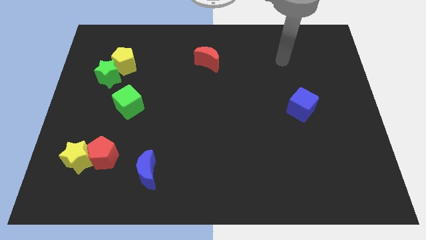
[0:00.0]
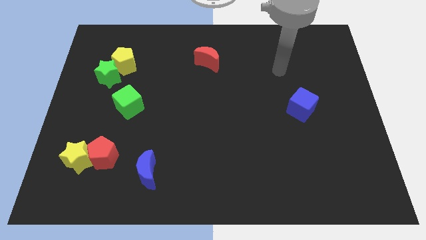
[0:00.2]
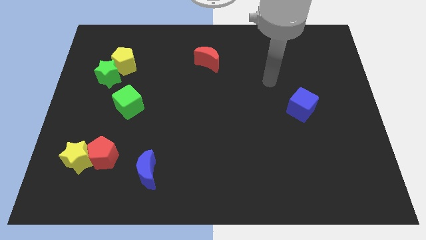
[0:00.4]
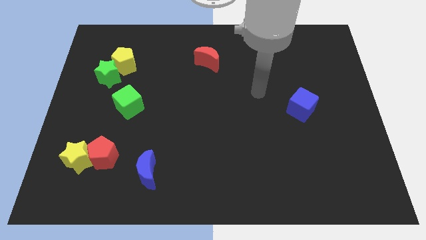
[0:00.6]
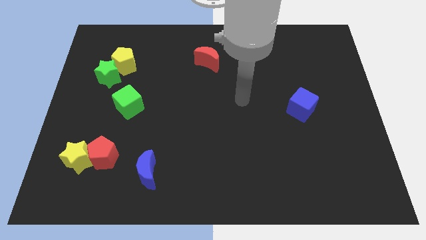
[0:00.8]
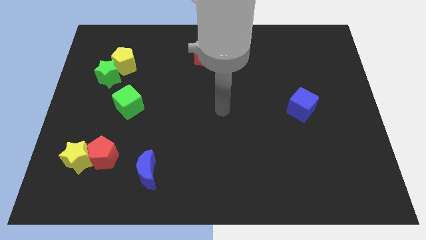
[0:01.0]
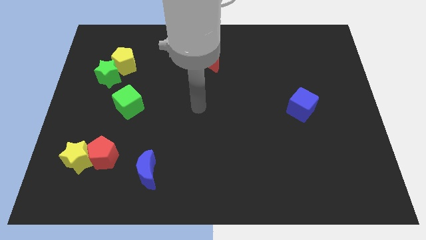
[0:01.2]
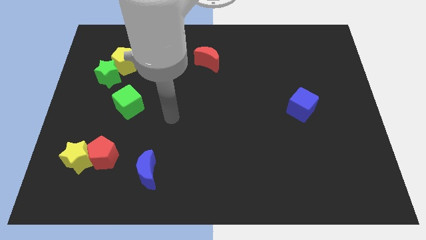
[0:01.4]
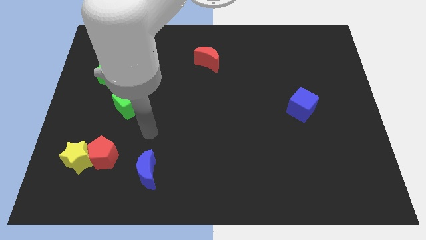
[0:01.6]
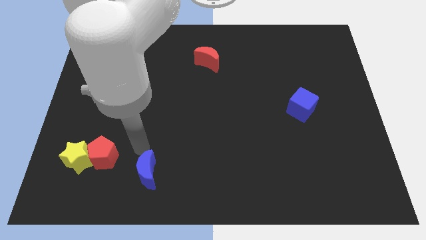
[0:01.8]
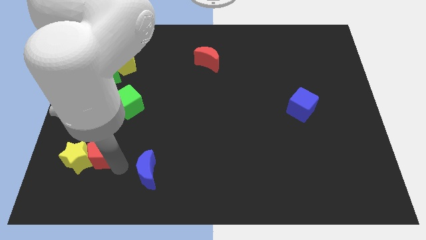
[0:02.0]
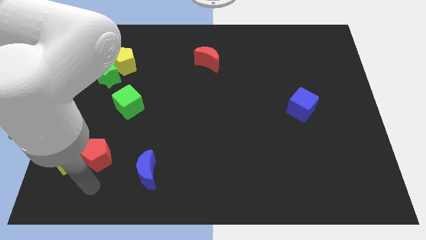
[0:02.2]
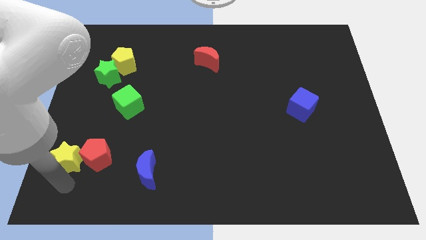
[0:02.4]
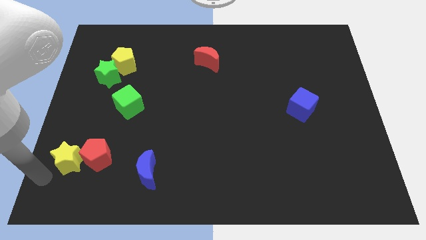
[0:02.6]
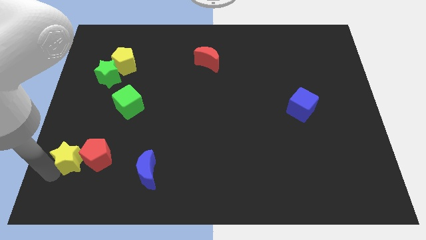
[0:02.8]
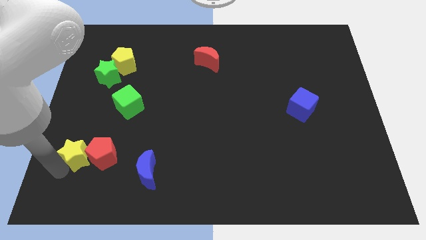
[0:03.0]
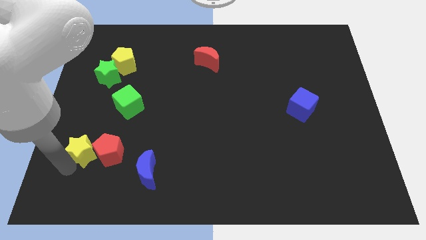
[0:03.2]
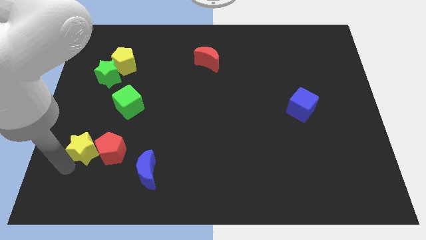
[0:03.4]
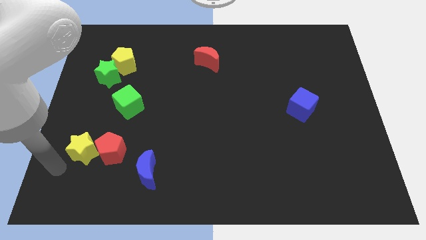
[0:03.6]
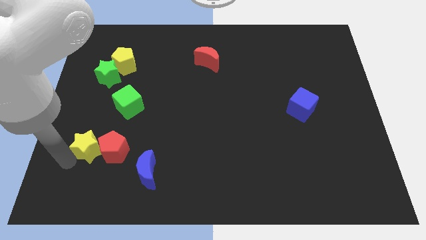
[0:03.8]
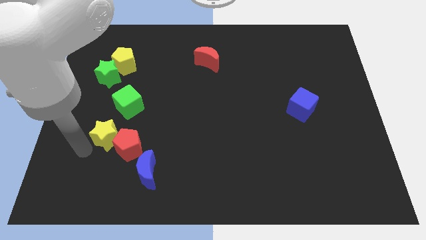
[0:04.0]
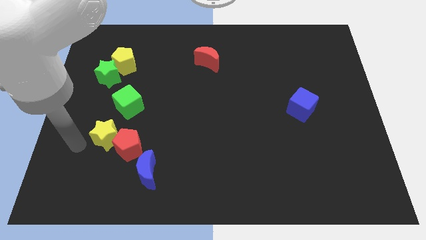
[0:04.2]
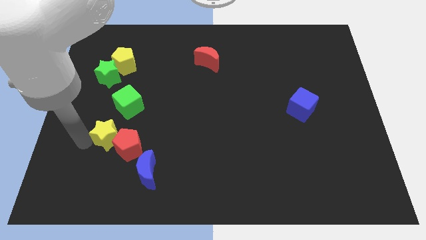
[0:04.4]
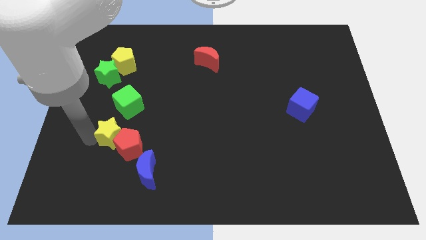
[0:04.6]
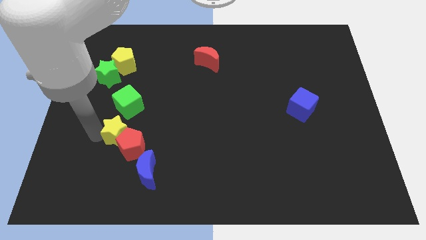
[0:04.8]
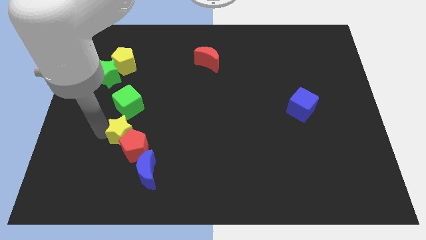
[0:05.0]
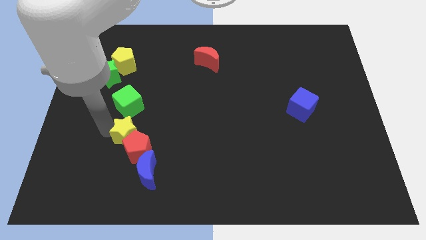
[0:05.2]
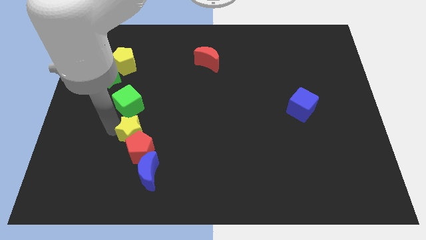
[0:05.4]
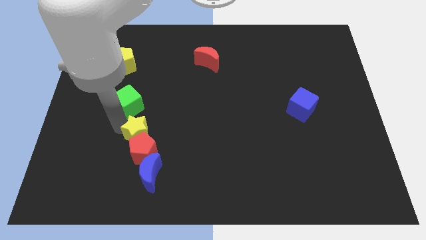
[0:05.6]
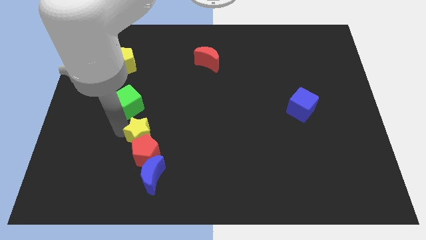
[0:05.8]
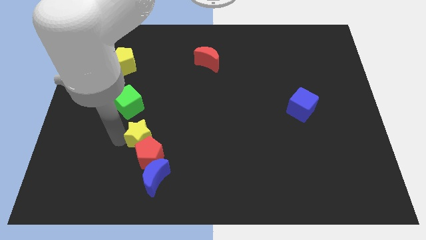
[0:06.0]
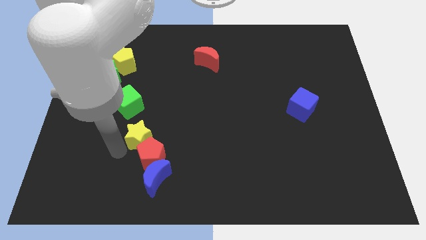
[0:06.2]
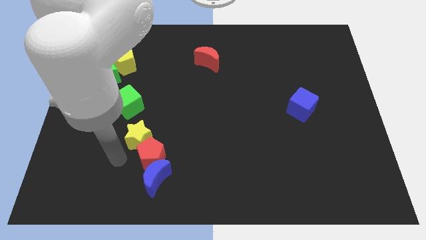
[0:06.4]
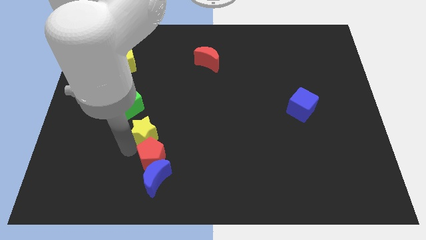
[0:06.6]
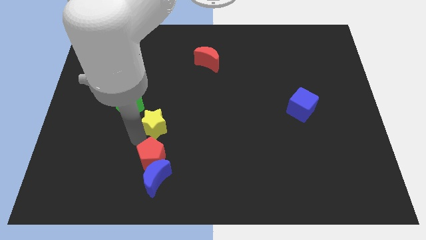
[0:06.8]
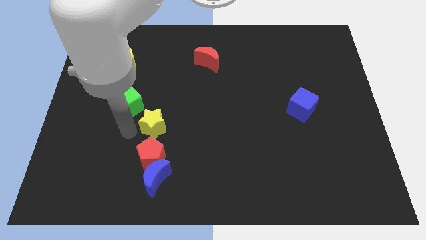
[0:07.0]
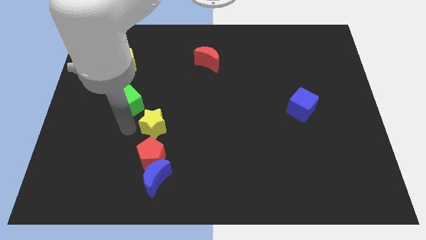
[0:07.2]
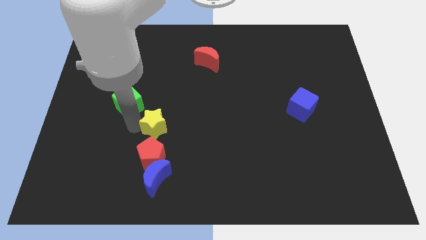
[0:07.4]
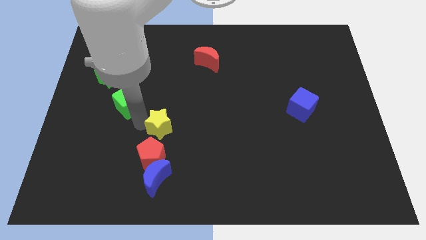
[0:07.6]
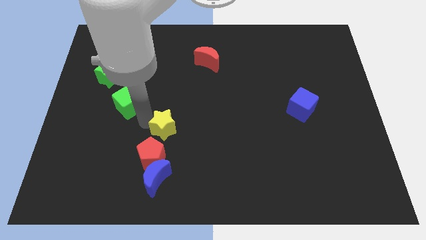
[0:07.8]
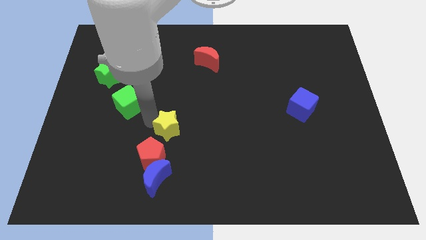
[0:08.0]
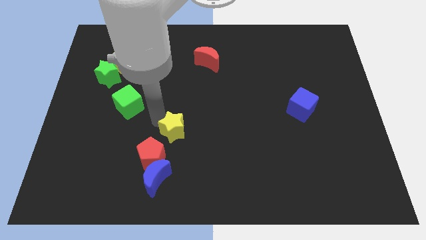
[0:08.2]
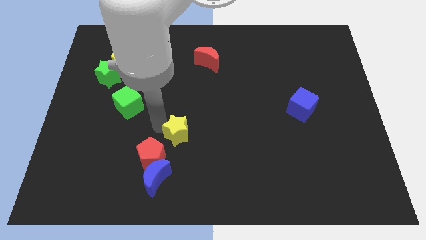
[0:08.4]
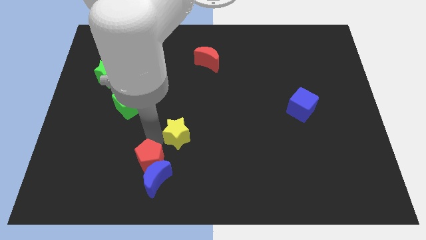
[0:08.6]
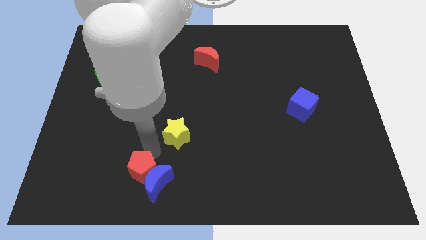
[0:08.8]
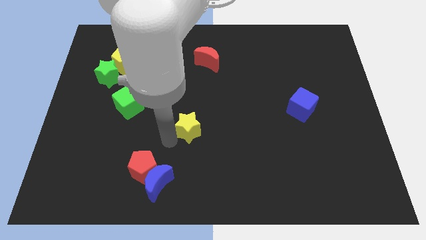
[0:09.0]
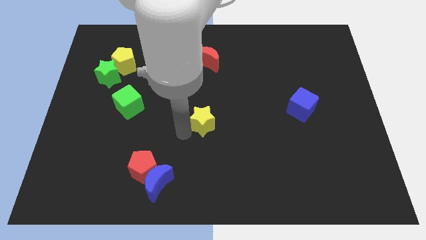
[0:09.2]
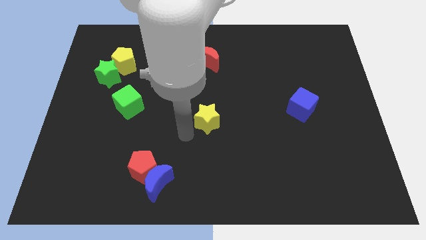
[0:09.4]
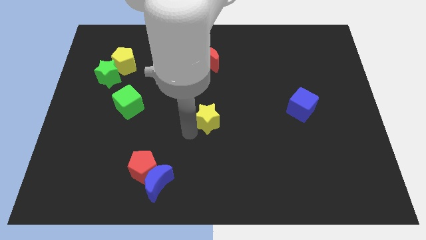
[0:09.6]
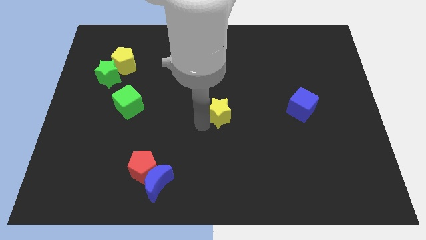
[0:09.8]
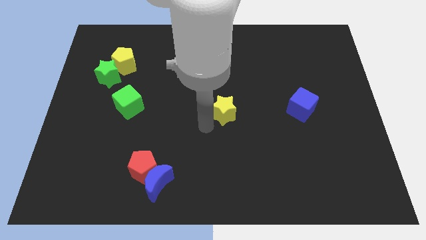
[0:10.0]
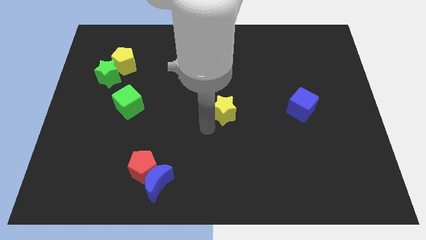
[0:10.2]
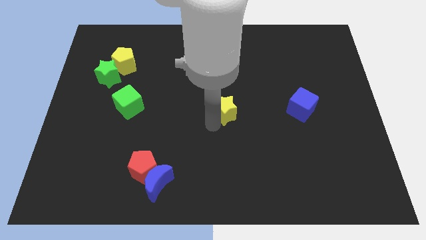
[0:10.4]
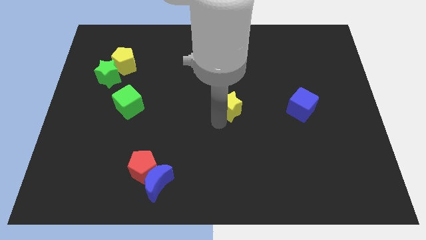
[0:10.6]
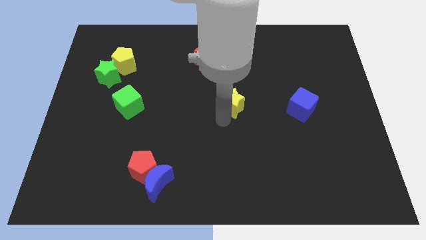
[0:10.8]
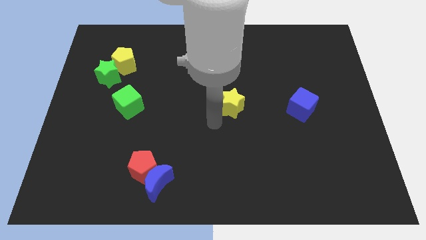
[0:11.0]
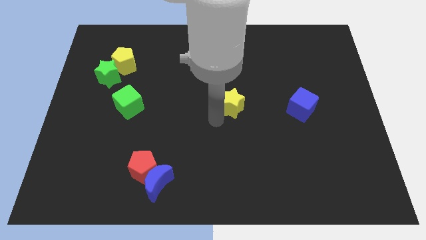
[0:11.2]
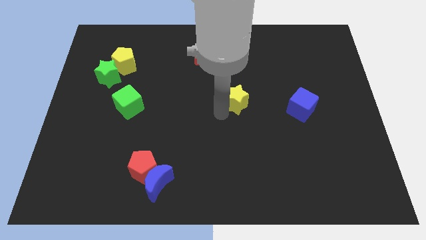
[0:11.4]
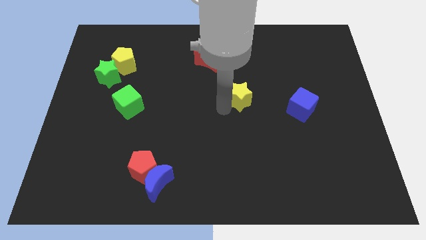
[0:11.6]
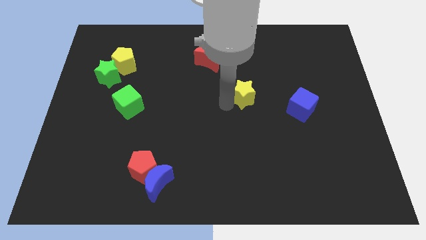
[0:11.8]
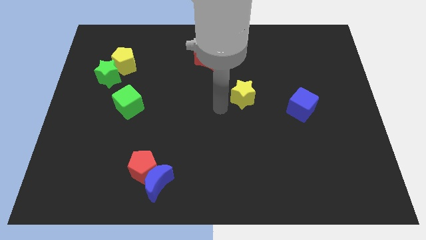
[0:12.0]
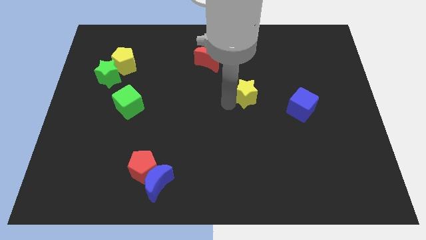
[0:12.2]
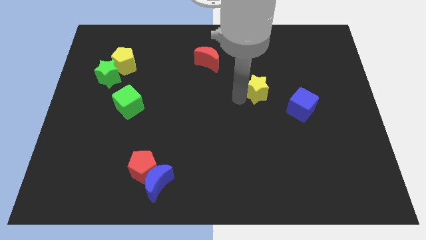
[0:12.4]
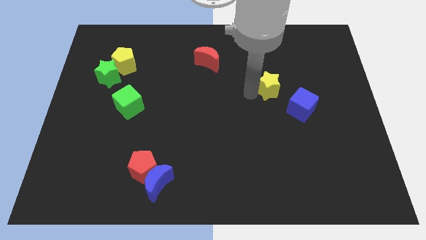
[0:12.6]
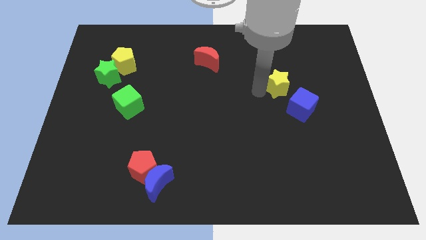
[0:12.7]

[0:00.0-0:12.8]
put the yellow star to the top side of the blue cube
